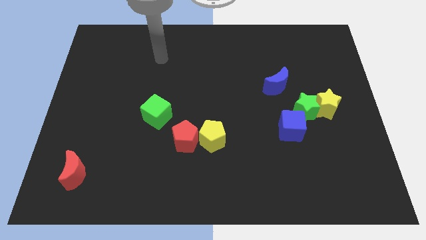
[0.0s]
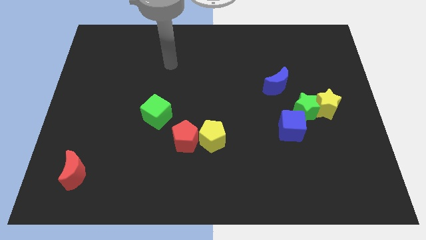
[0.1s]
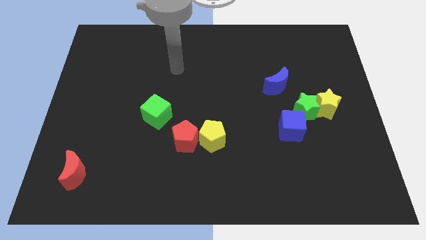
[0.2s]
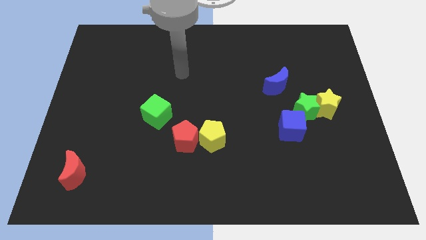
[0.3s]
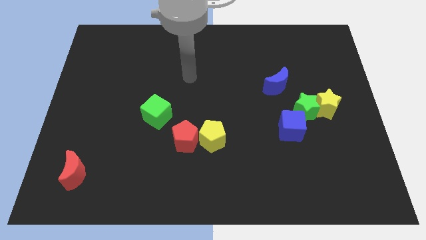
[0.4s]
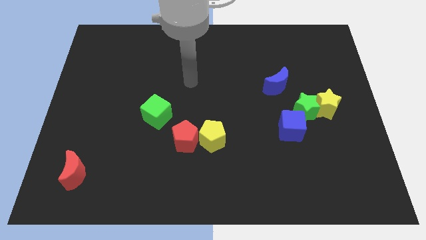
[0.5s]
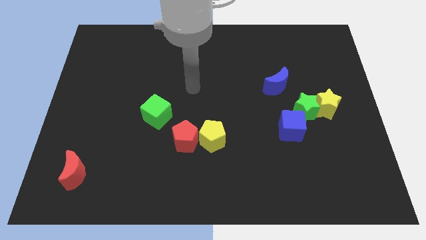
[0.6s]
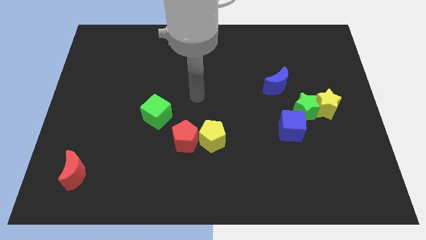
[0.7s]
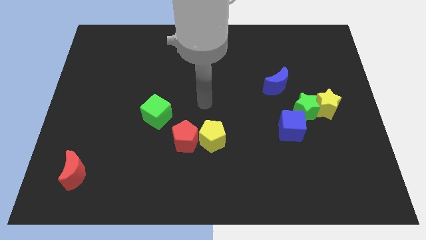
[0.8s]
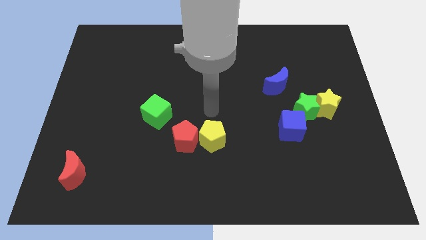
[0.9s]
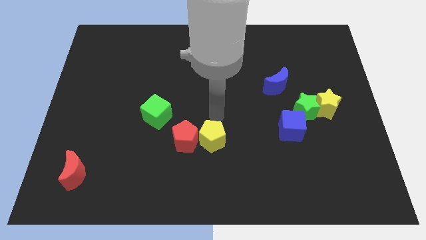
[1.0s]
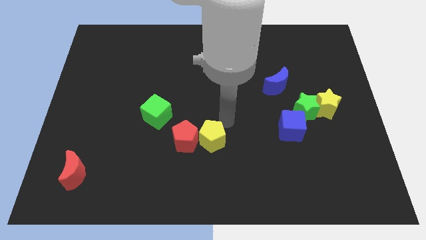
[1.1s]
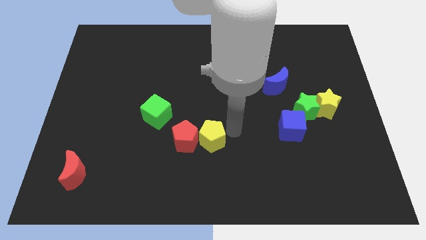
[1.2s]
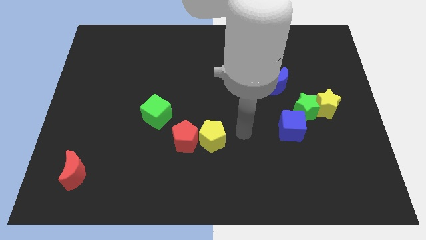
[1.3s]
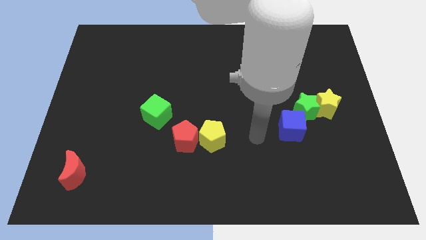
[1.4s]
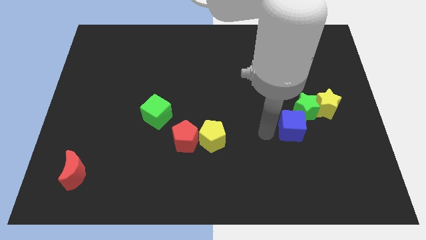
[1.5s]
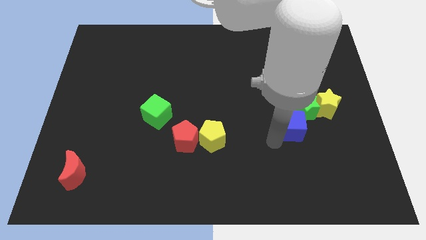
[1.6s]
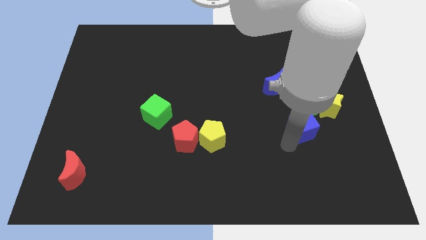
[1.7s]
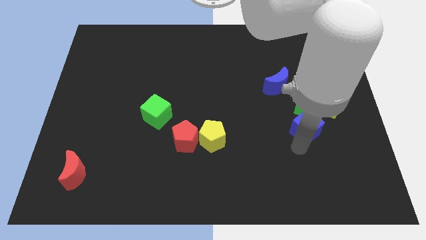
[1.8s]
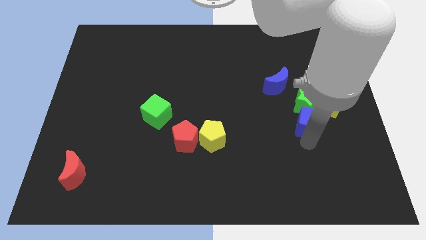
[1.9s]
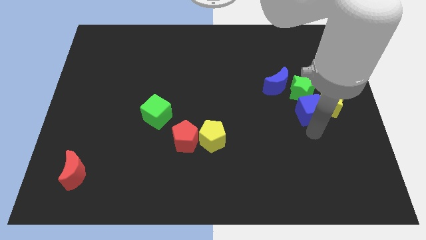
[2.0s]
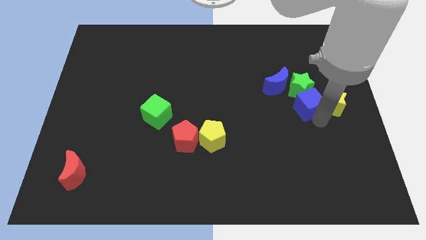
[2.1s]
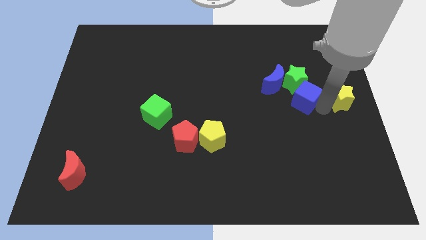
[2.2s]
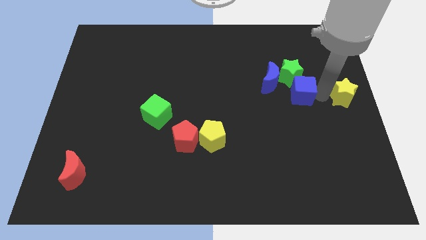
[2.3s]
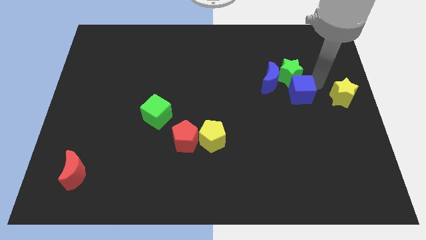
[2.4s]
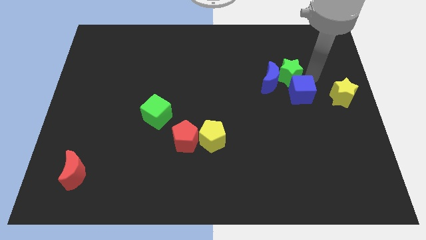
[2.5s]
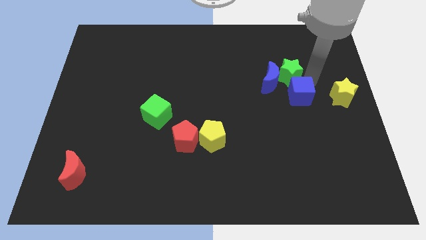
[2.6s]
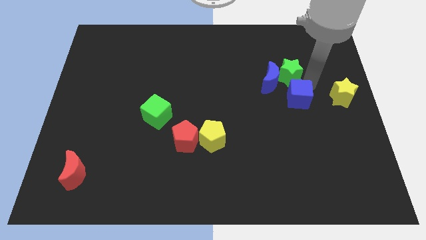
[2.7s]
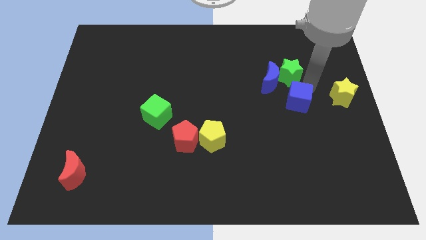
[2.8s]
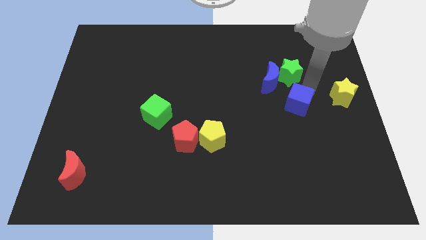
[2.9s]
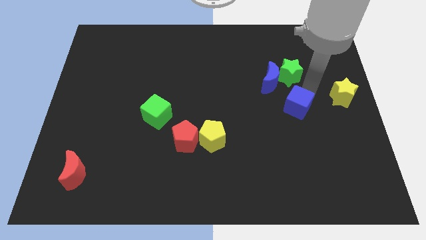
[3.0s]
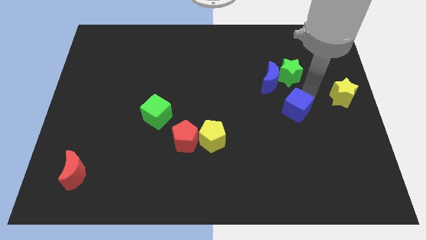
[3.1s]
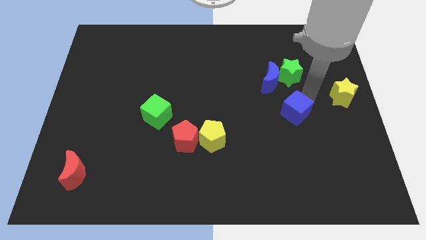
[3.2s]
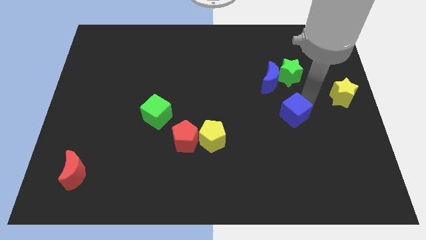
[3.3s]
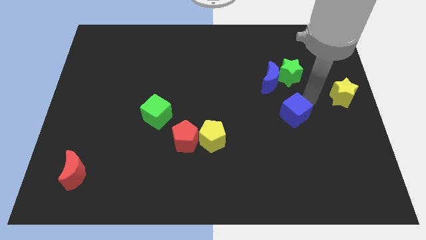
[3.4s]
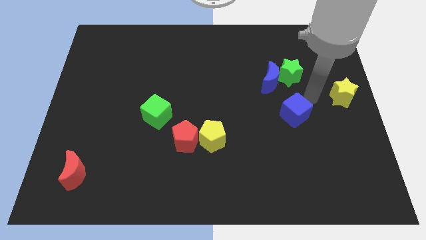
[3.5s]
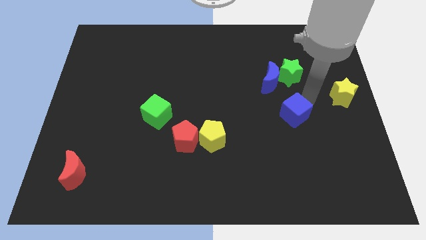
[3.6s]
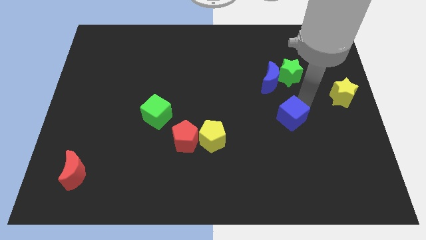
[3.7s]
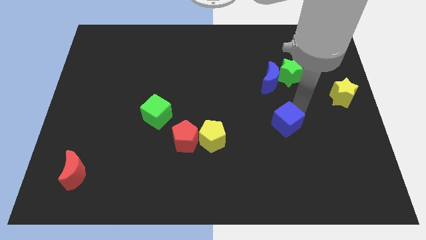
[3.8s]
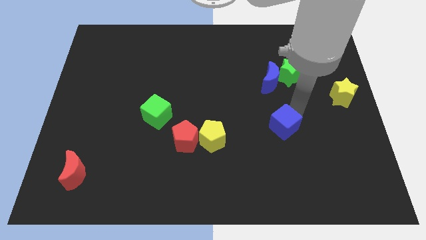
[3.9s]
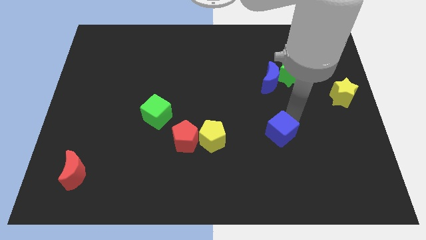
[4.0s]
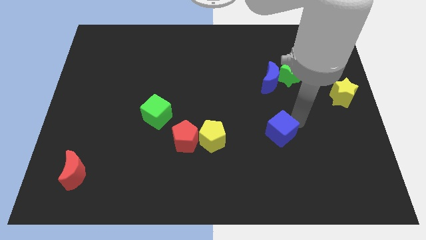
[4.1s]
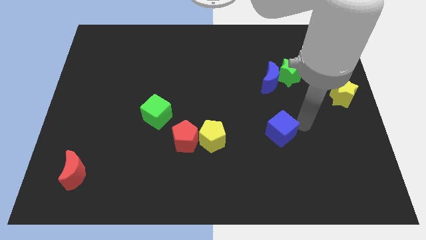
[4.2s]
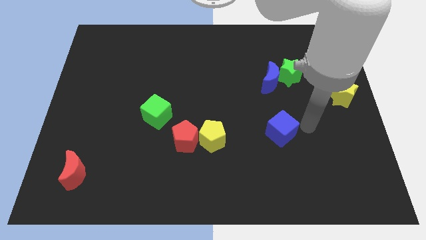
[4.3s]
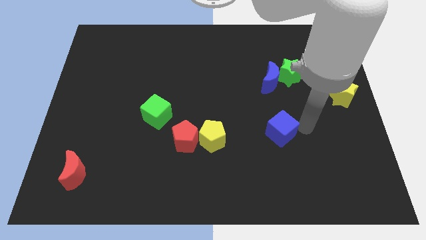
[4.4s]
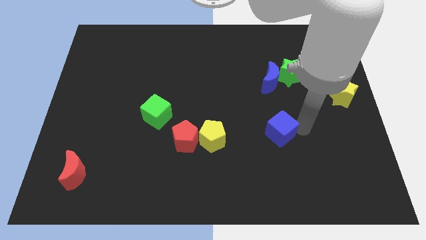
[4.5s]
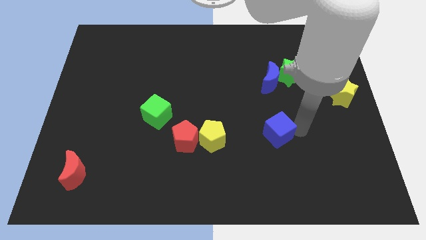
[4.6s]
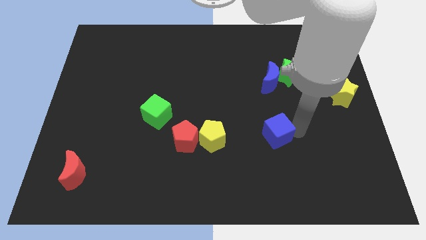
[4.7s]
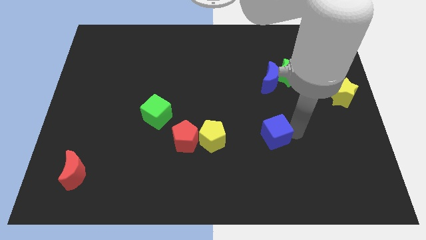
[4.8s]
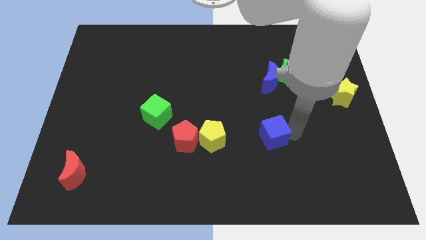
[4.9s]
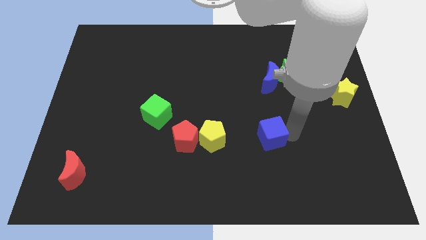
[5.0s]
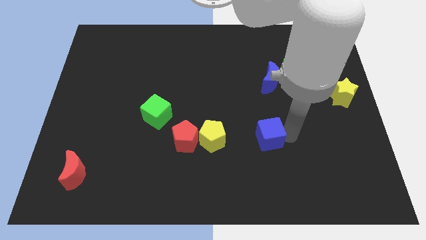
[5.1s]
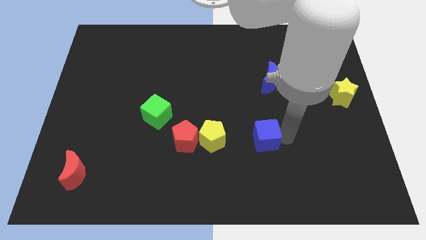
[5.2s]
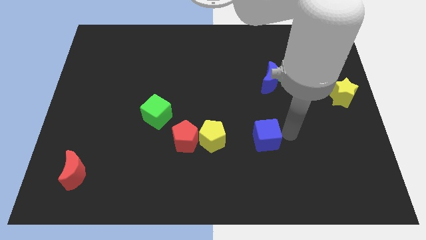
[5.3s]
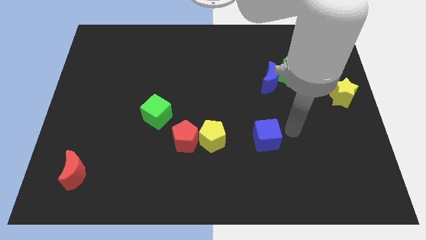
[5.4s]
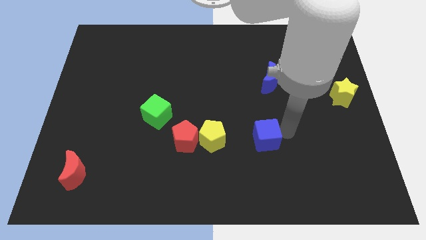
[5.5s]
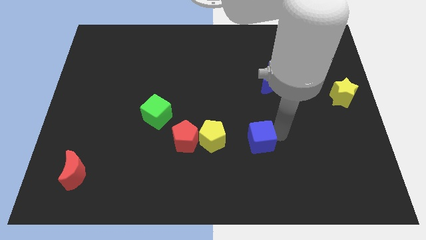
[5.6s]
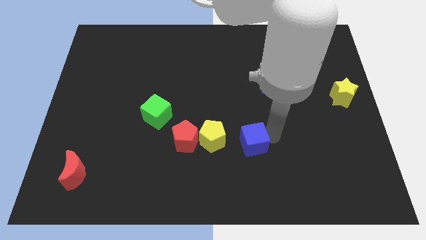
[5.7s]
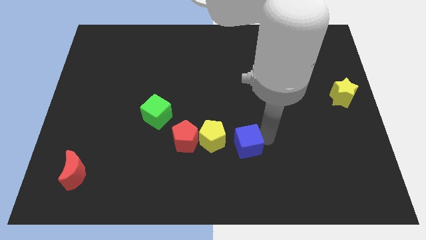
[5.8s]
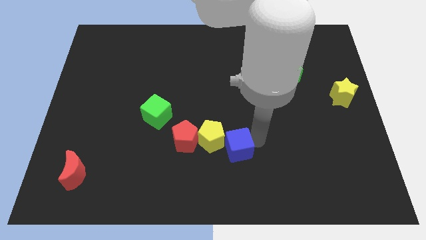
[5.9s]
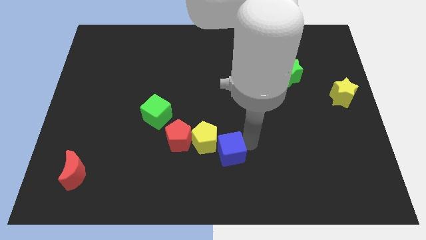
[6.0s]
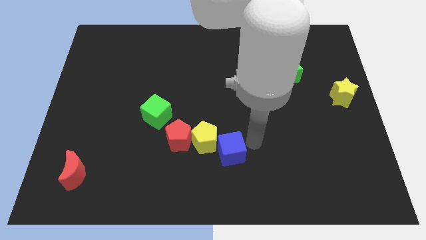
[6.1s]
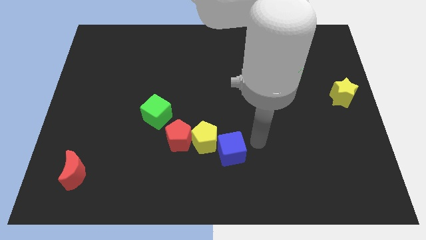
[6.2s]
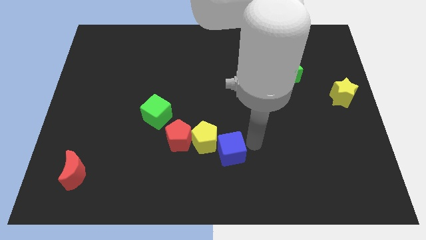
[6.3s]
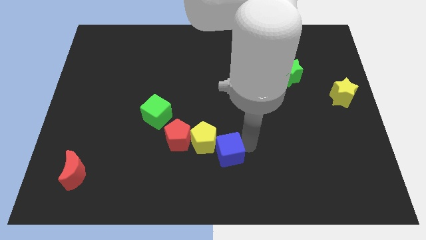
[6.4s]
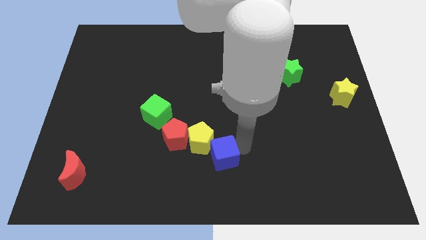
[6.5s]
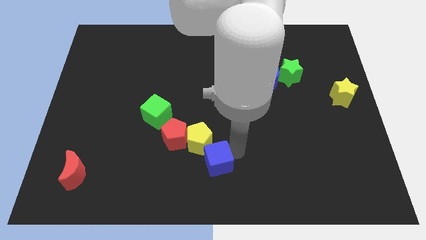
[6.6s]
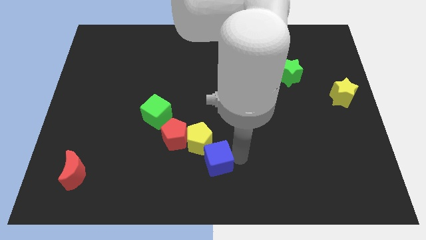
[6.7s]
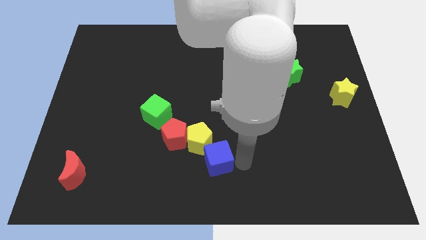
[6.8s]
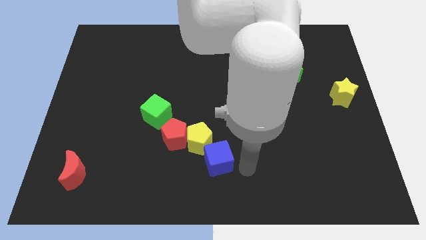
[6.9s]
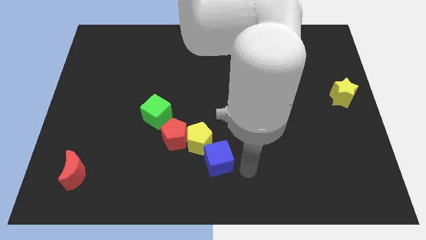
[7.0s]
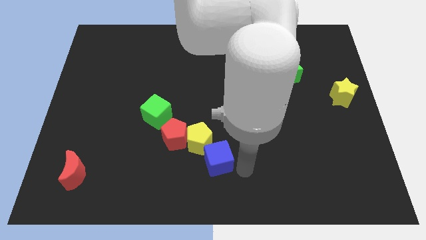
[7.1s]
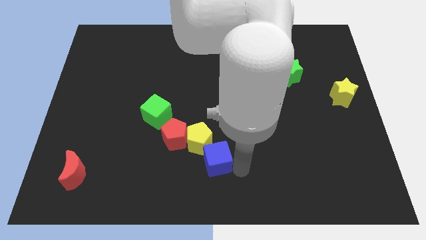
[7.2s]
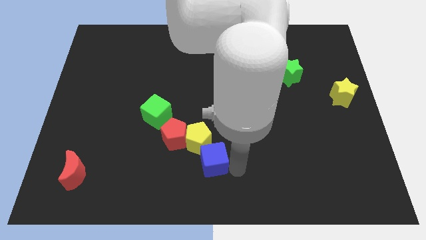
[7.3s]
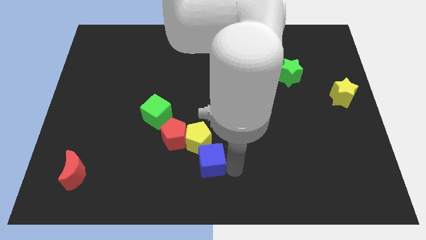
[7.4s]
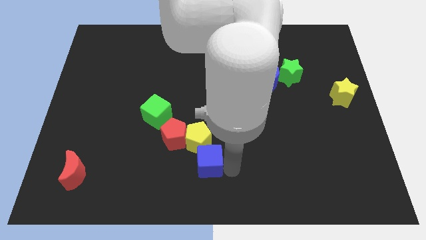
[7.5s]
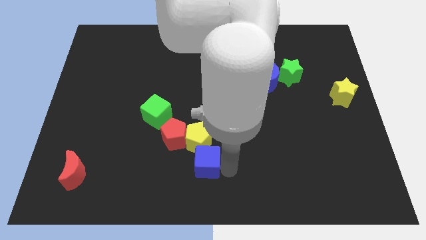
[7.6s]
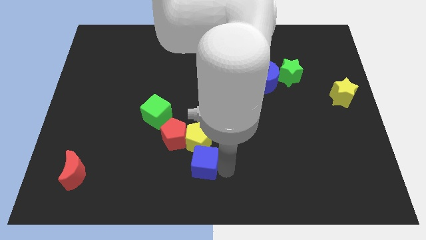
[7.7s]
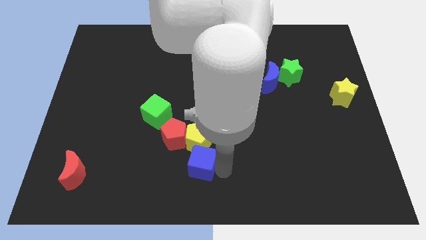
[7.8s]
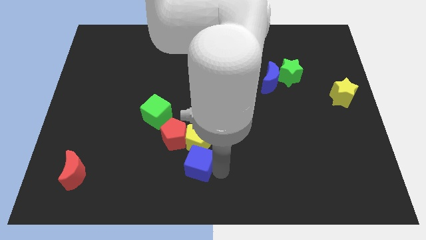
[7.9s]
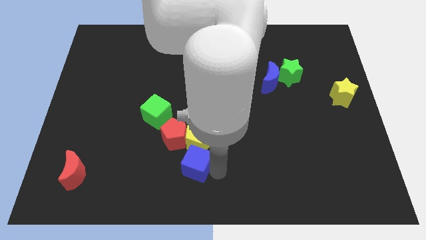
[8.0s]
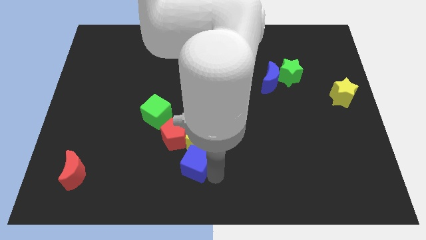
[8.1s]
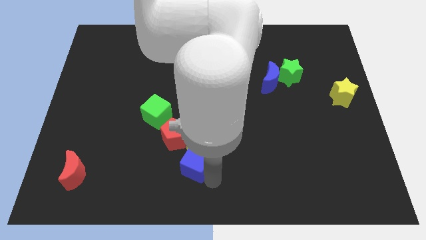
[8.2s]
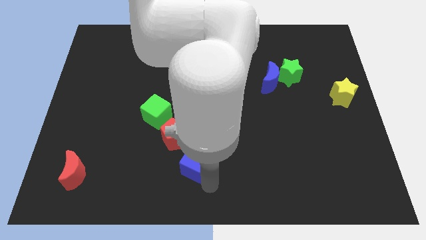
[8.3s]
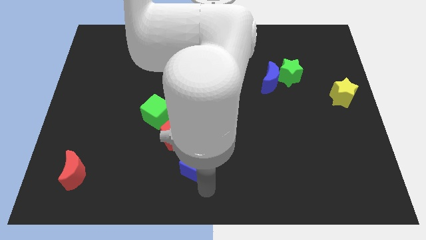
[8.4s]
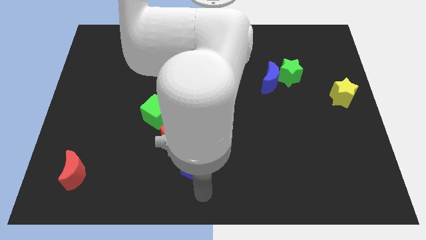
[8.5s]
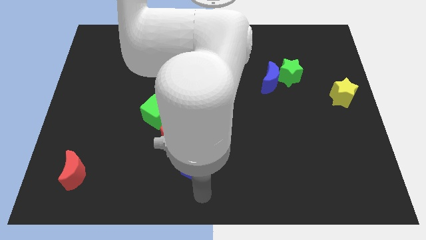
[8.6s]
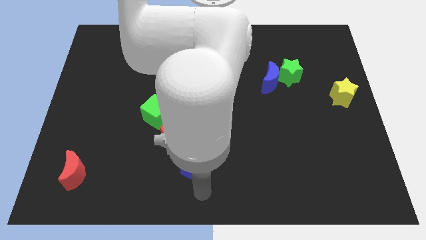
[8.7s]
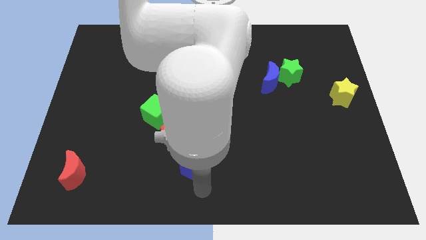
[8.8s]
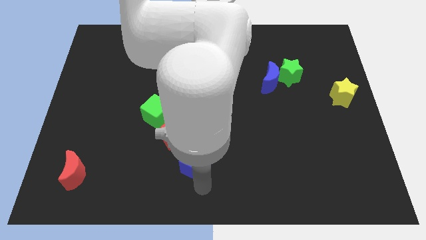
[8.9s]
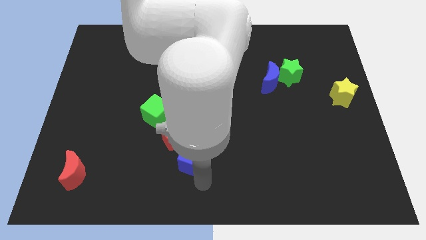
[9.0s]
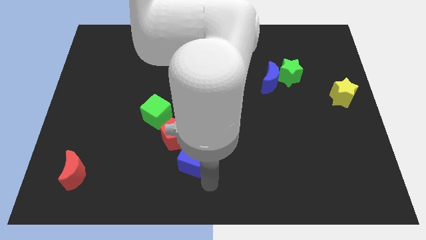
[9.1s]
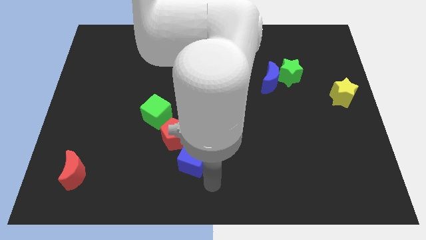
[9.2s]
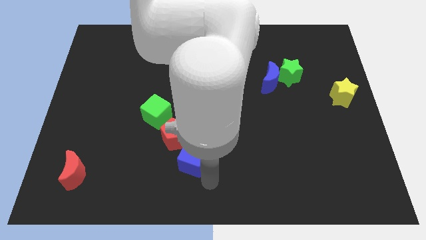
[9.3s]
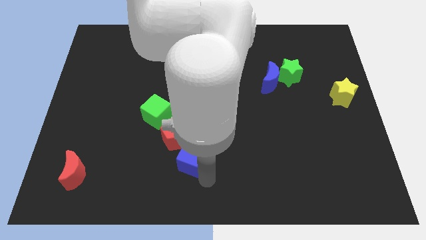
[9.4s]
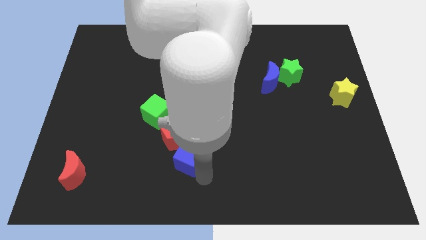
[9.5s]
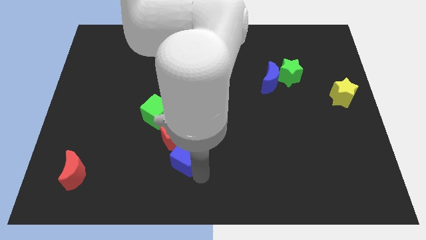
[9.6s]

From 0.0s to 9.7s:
push the blue cube towards the red pentagon
